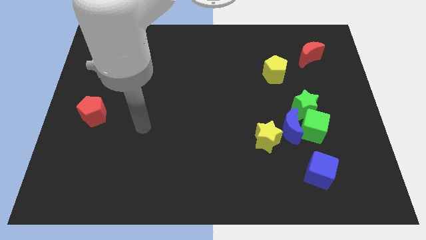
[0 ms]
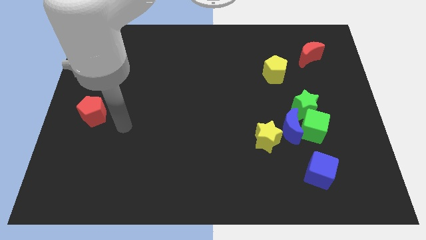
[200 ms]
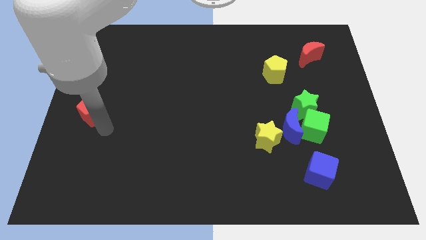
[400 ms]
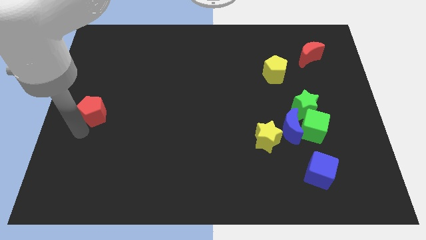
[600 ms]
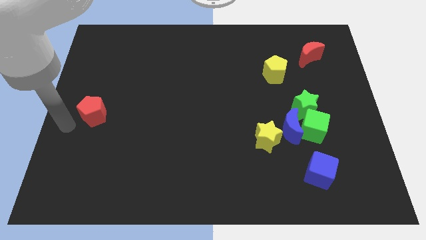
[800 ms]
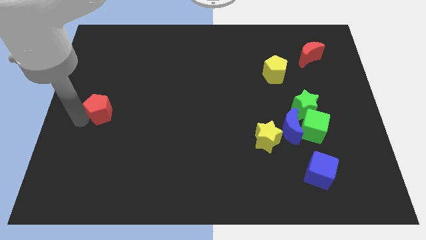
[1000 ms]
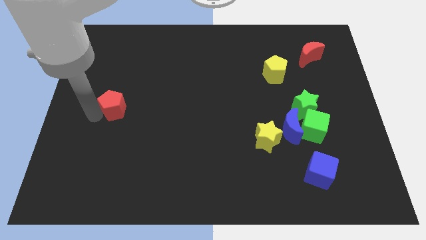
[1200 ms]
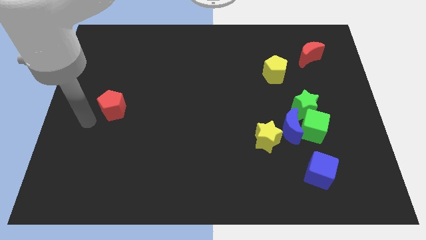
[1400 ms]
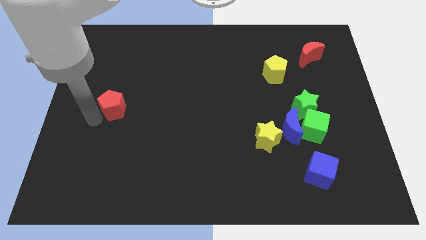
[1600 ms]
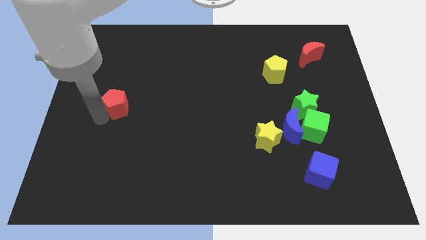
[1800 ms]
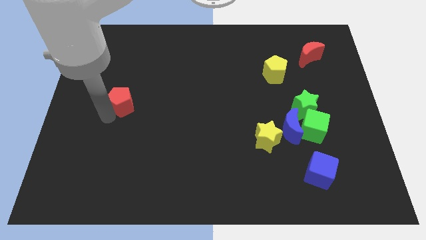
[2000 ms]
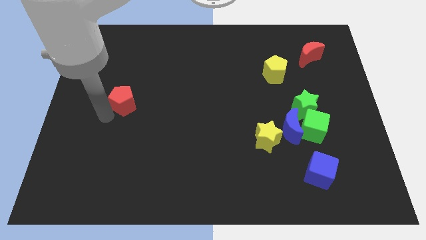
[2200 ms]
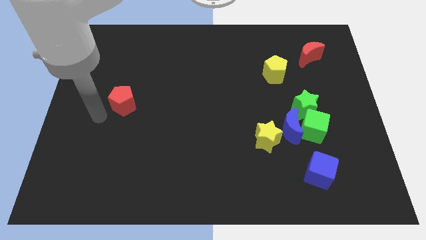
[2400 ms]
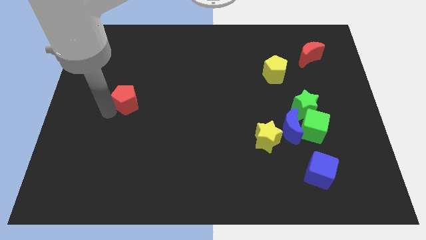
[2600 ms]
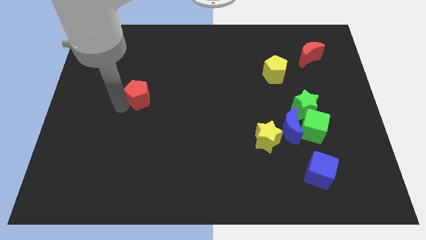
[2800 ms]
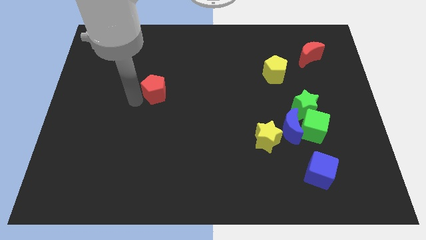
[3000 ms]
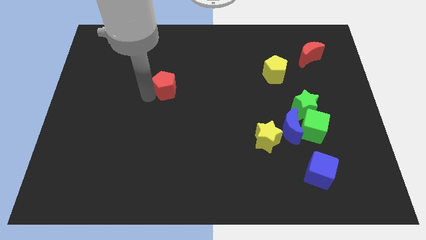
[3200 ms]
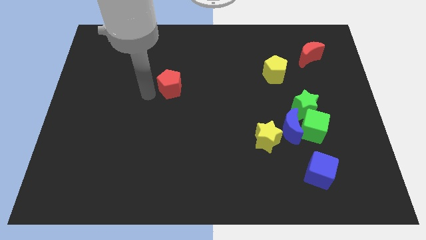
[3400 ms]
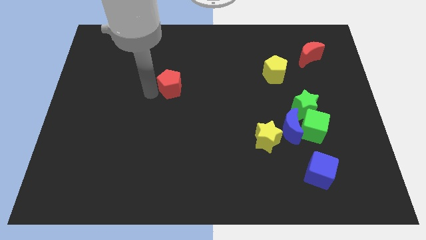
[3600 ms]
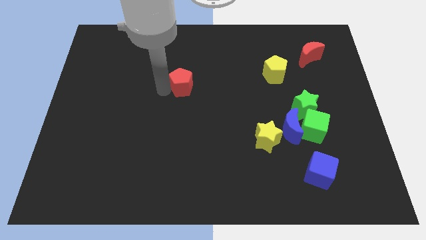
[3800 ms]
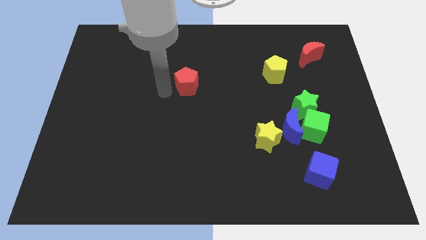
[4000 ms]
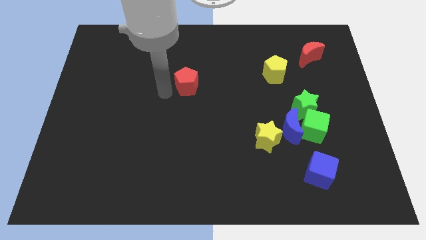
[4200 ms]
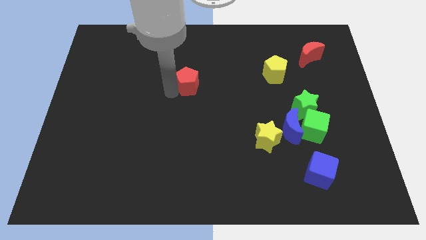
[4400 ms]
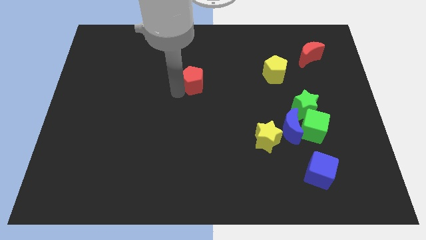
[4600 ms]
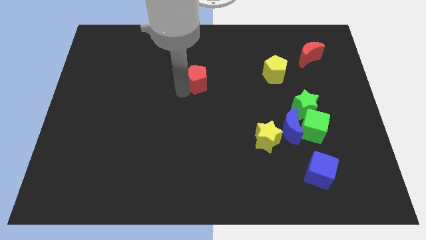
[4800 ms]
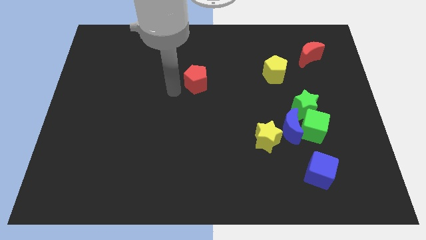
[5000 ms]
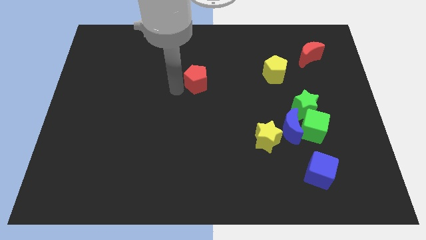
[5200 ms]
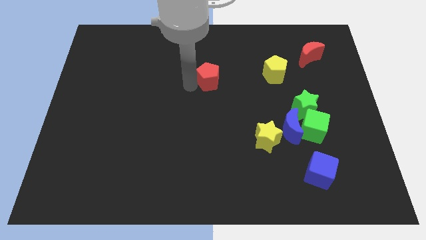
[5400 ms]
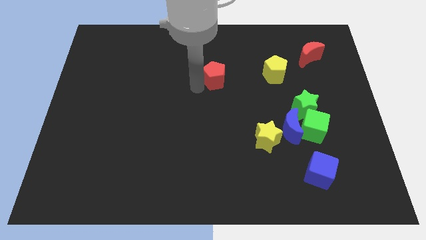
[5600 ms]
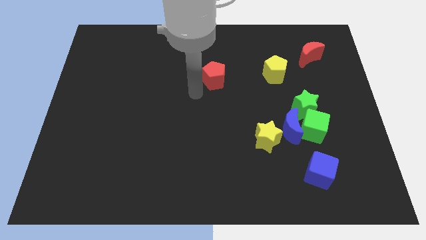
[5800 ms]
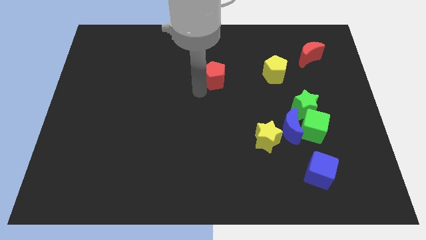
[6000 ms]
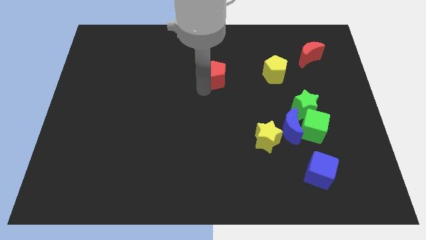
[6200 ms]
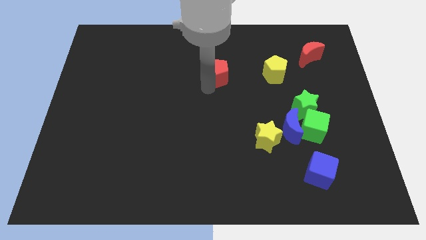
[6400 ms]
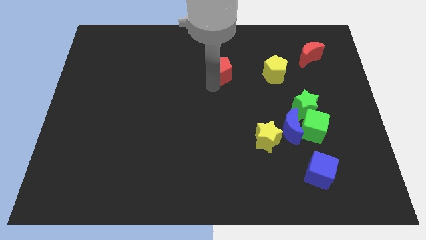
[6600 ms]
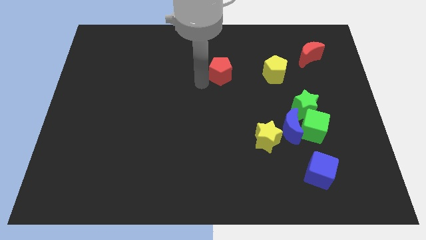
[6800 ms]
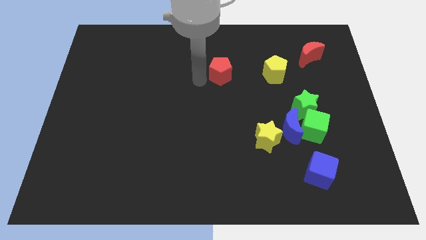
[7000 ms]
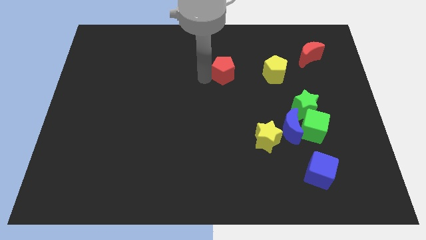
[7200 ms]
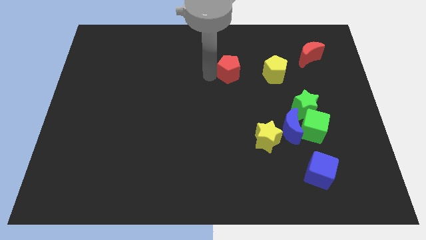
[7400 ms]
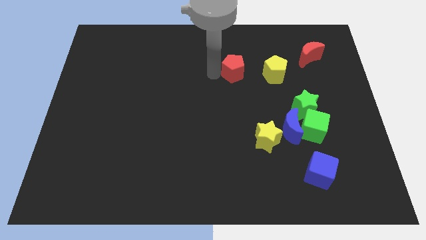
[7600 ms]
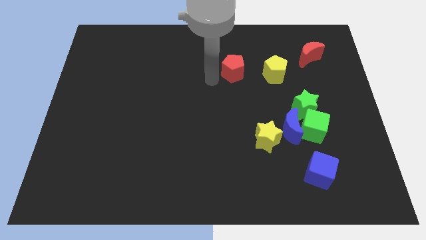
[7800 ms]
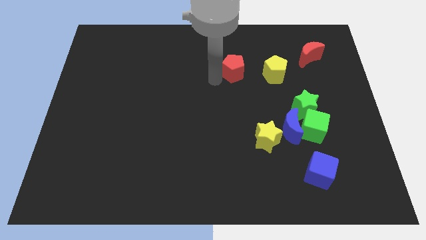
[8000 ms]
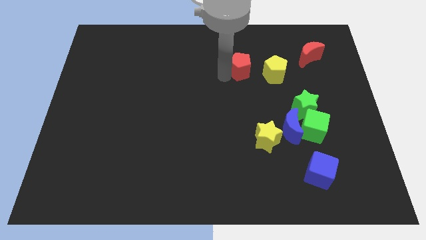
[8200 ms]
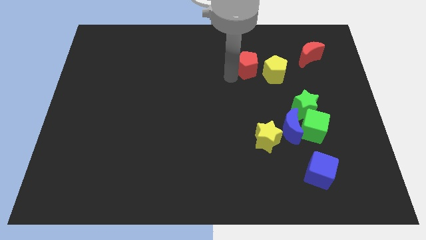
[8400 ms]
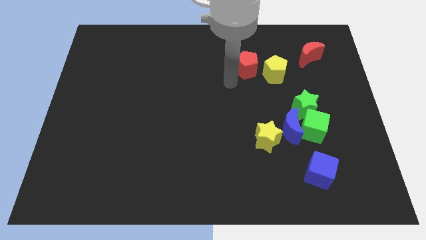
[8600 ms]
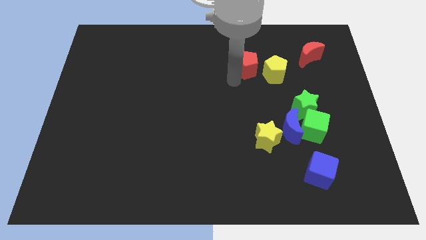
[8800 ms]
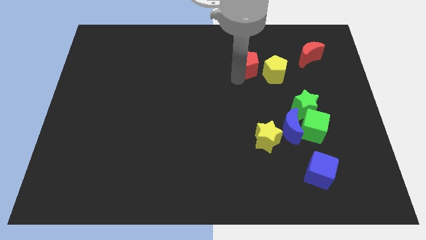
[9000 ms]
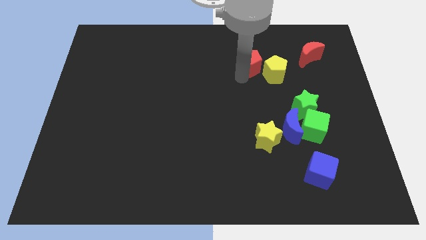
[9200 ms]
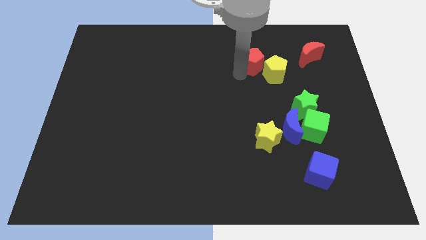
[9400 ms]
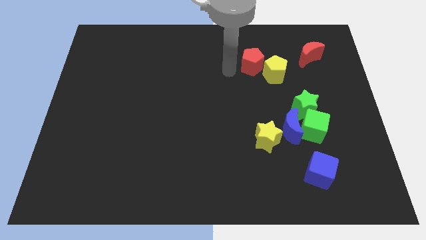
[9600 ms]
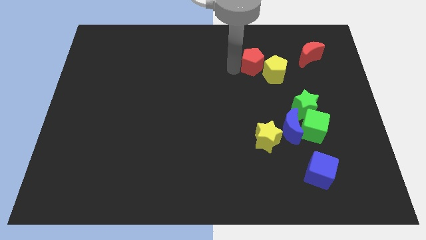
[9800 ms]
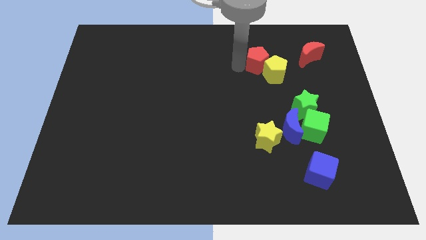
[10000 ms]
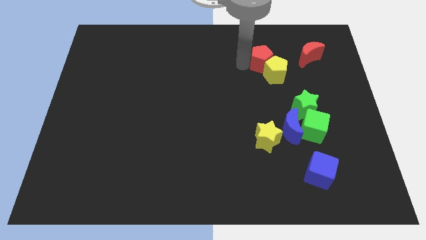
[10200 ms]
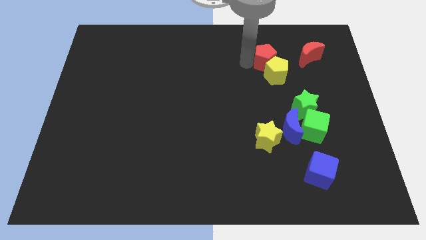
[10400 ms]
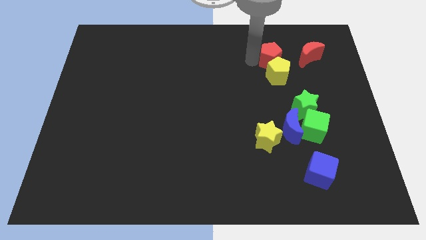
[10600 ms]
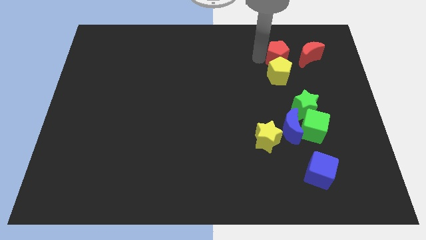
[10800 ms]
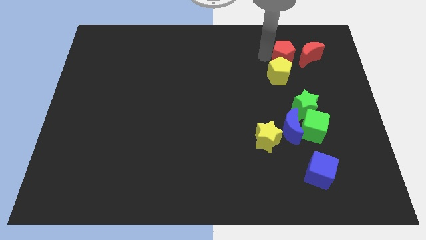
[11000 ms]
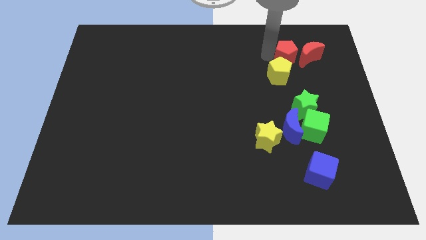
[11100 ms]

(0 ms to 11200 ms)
put the red pentagon towards the red moon

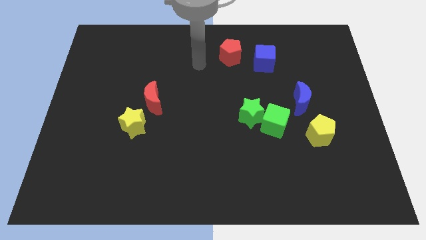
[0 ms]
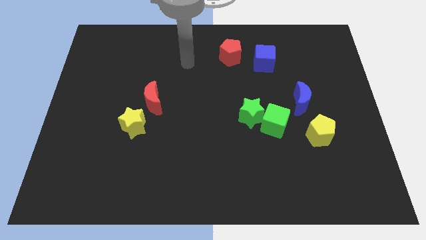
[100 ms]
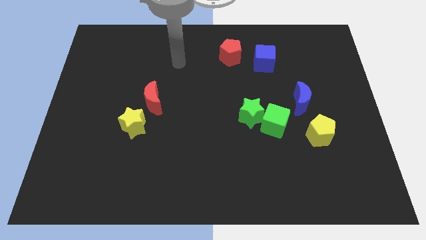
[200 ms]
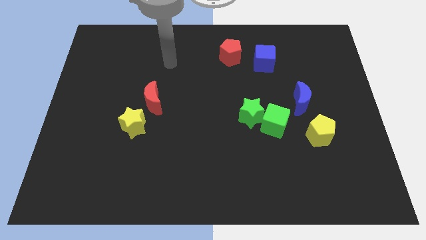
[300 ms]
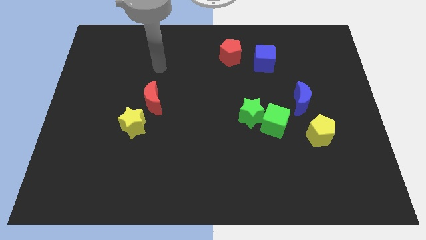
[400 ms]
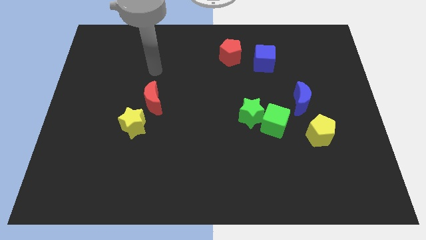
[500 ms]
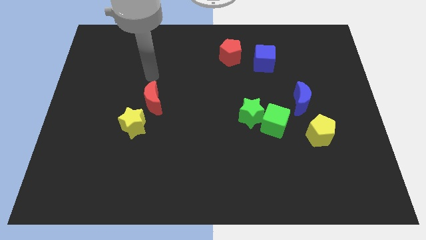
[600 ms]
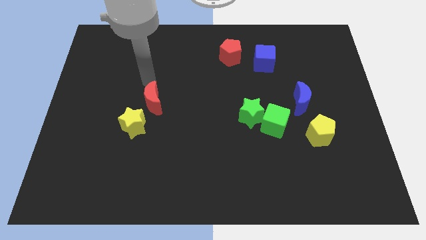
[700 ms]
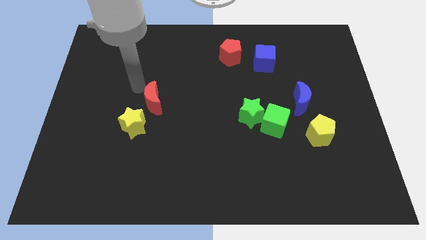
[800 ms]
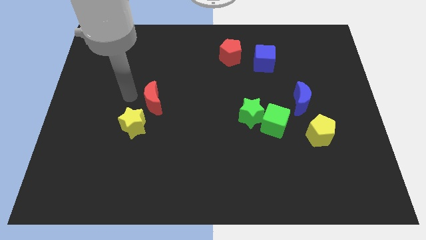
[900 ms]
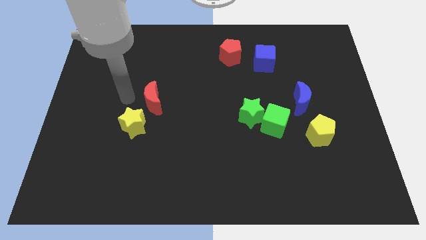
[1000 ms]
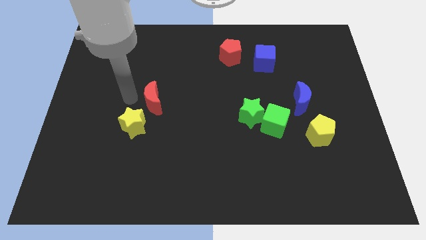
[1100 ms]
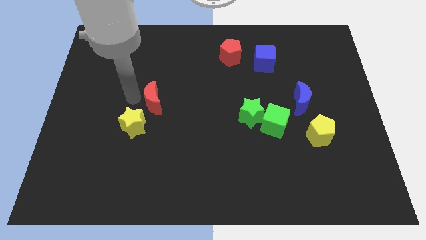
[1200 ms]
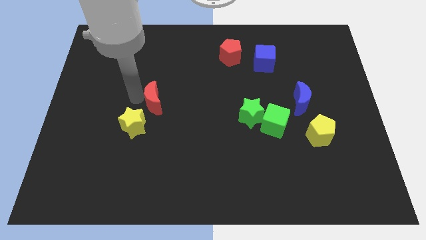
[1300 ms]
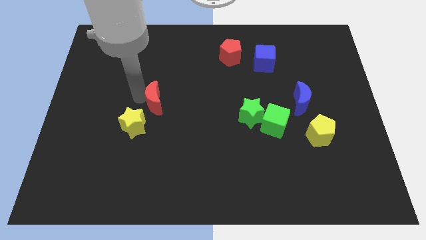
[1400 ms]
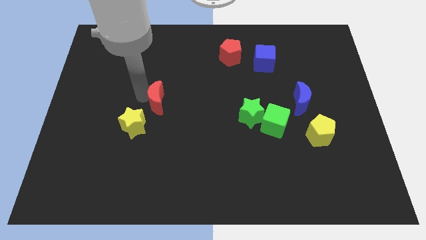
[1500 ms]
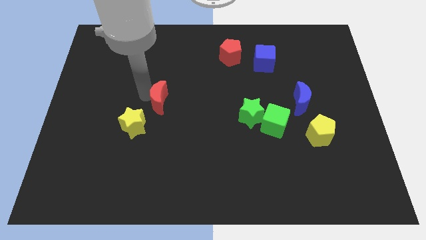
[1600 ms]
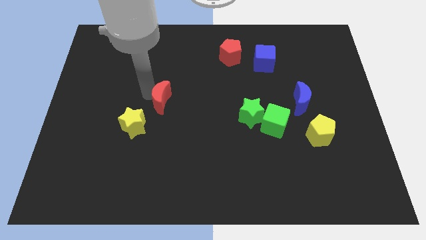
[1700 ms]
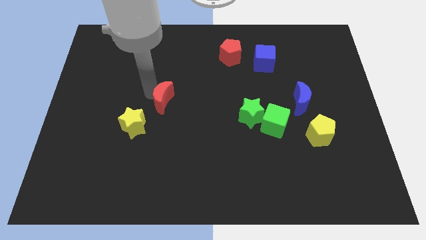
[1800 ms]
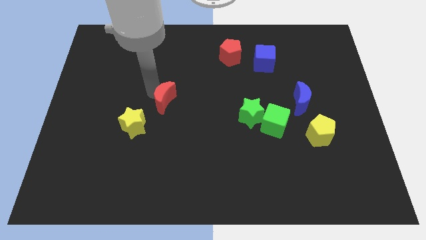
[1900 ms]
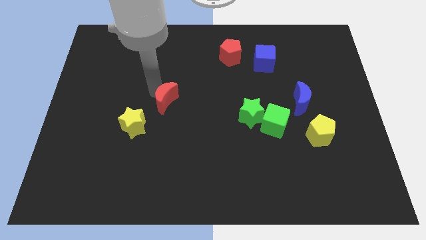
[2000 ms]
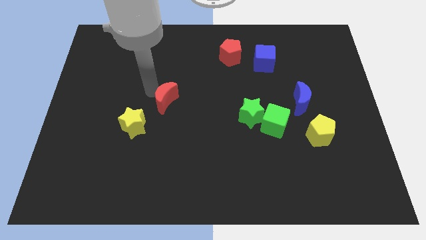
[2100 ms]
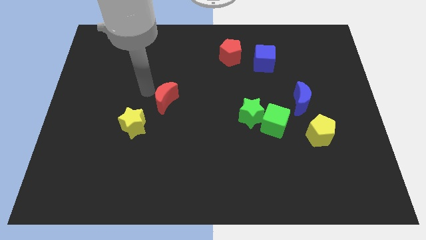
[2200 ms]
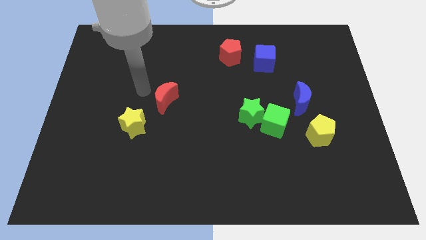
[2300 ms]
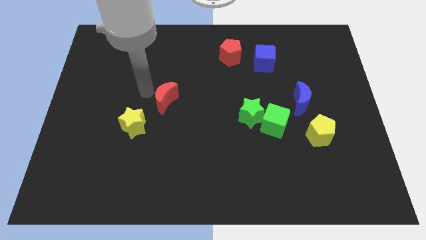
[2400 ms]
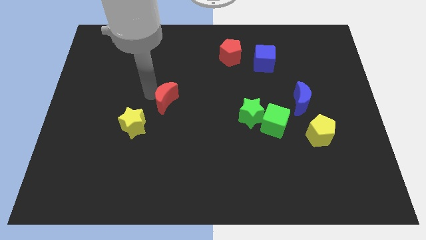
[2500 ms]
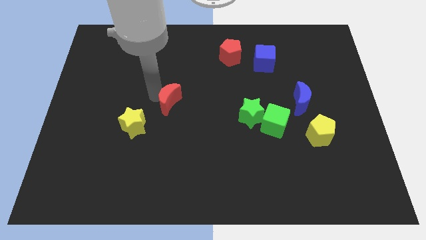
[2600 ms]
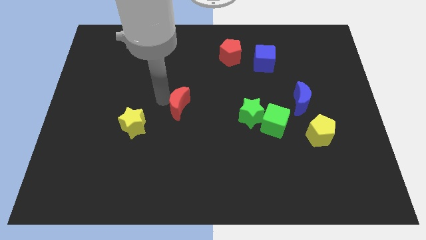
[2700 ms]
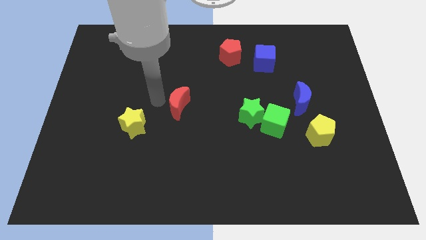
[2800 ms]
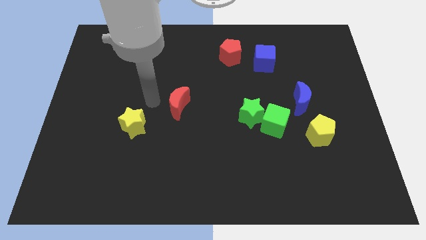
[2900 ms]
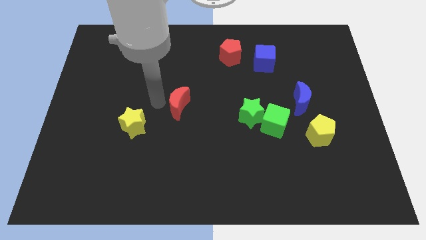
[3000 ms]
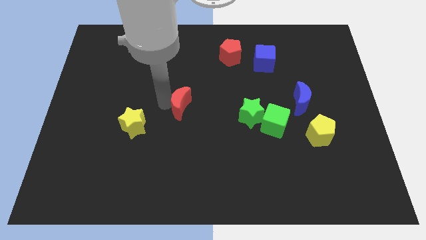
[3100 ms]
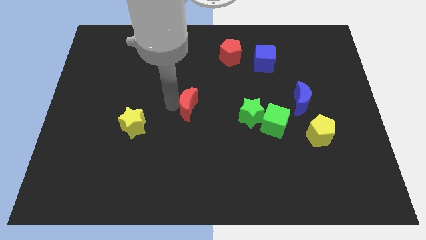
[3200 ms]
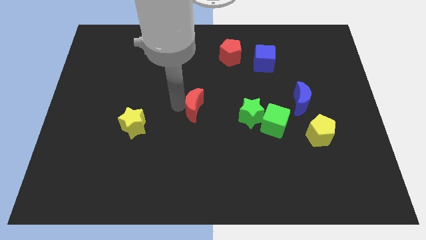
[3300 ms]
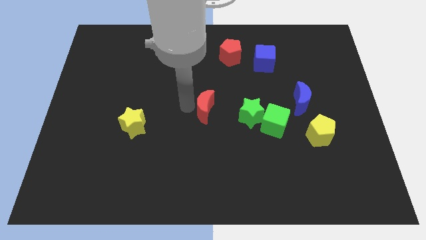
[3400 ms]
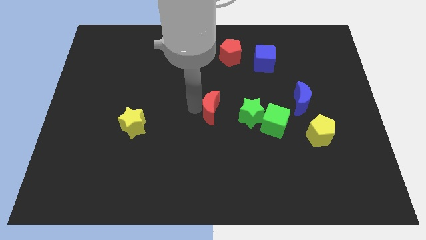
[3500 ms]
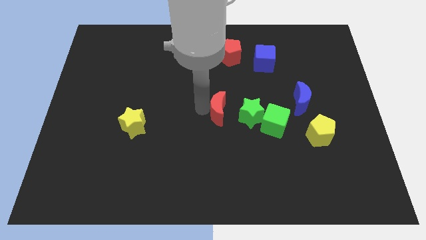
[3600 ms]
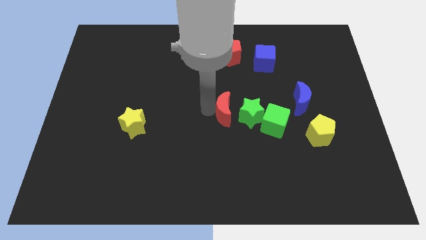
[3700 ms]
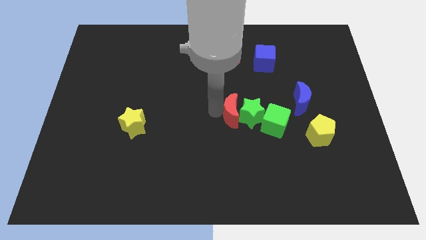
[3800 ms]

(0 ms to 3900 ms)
push the red moon to the green star
